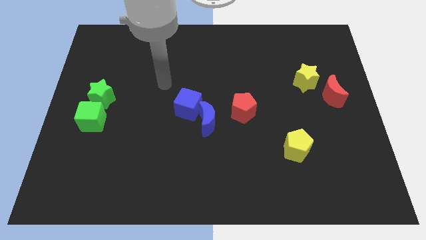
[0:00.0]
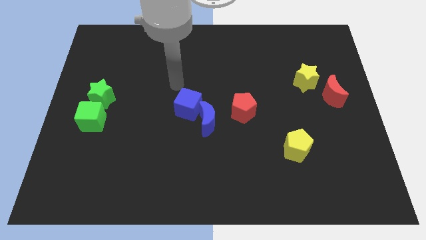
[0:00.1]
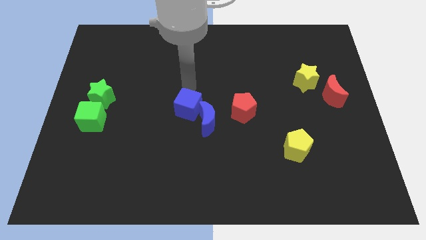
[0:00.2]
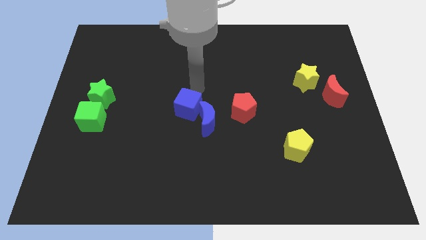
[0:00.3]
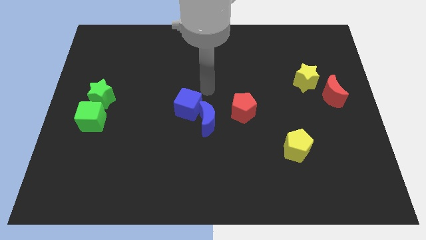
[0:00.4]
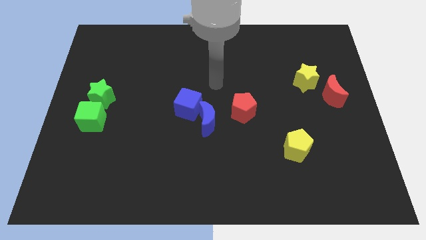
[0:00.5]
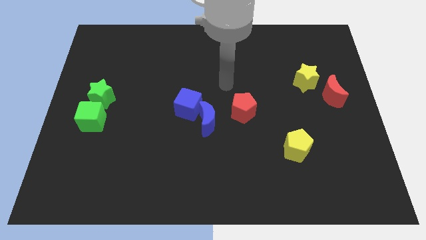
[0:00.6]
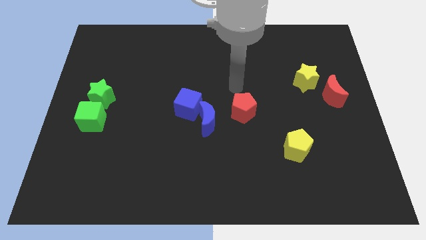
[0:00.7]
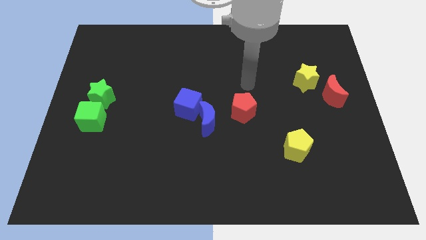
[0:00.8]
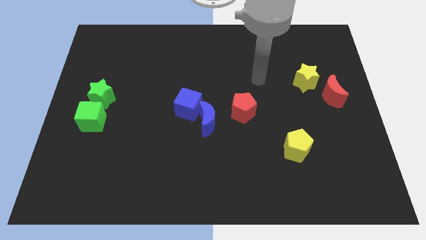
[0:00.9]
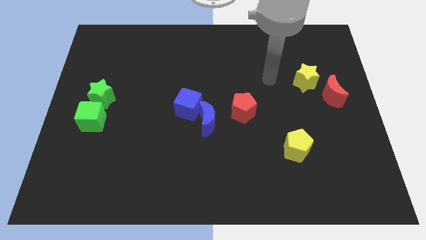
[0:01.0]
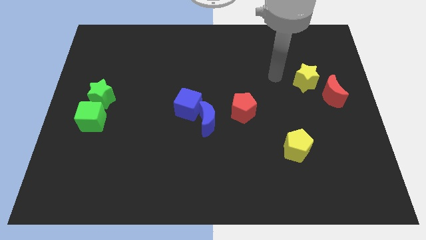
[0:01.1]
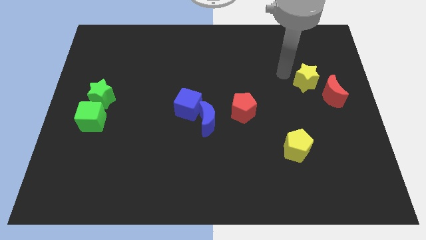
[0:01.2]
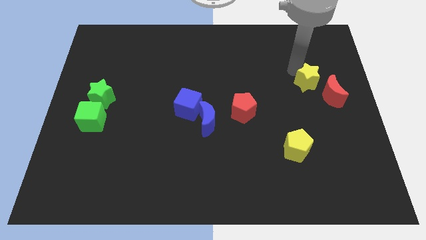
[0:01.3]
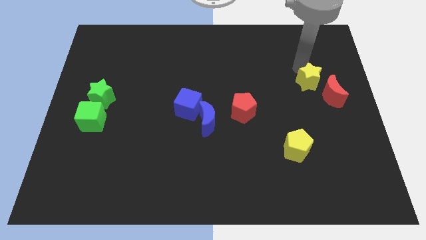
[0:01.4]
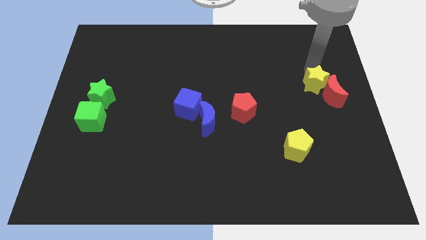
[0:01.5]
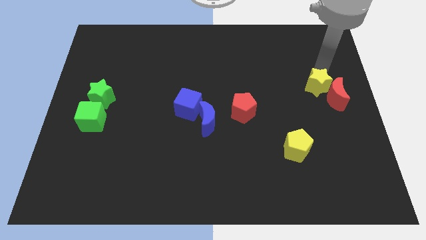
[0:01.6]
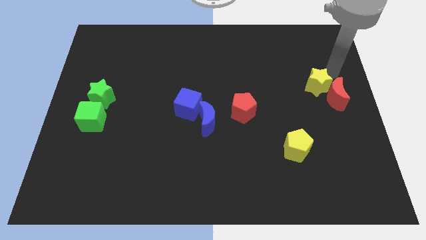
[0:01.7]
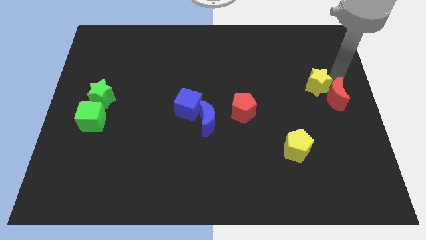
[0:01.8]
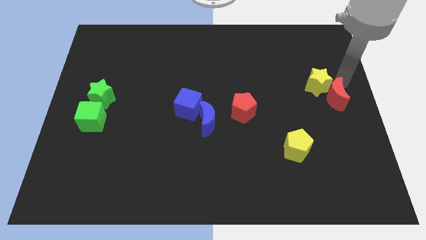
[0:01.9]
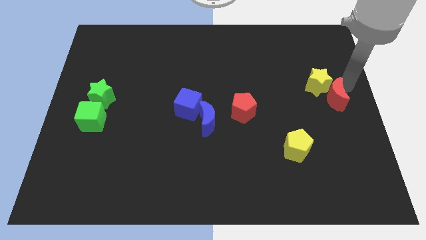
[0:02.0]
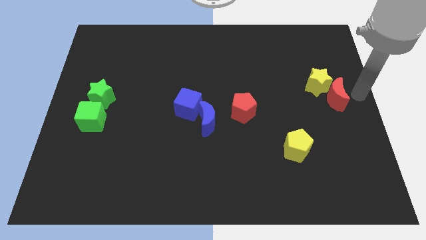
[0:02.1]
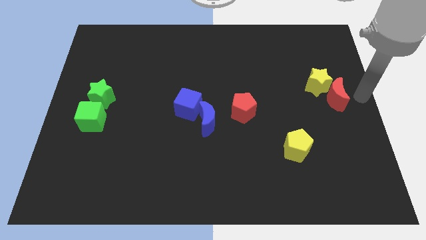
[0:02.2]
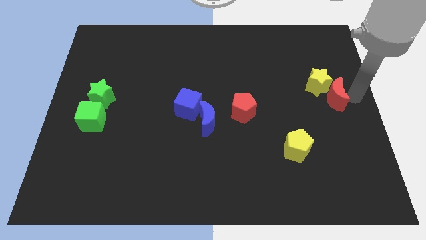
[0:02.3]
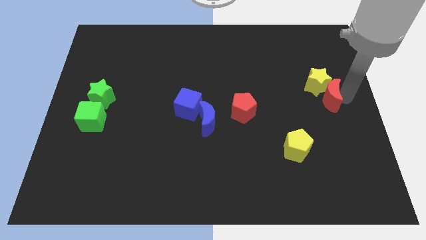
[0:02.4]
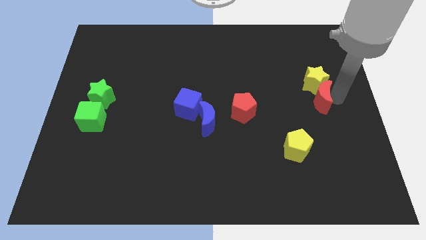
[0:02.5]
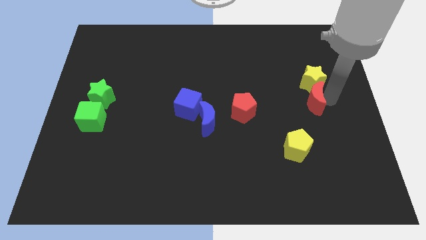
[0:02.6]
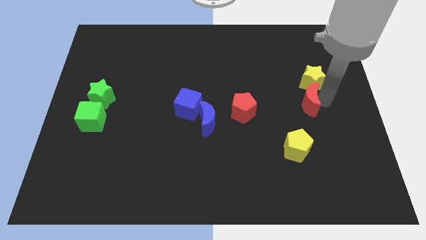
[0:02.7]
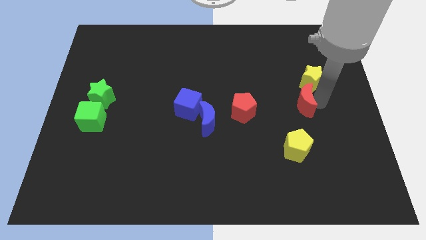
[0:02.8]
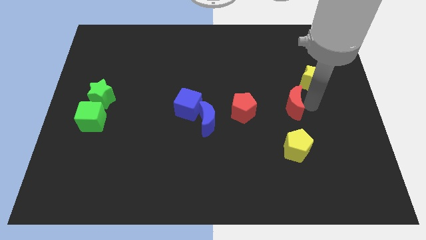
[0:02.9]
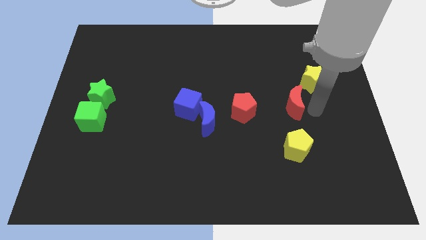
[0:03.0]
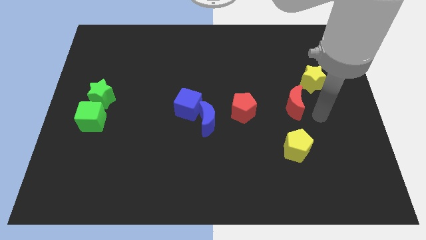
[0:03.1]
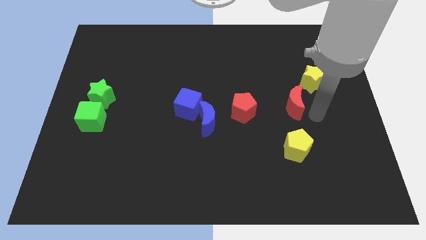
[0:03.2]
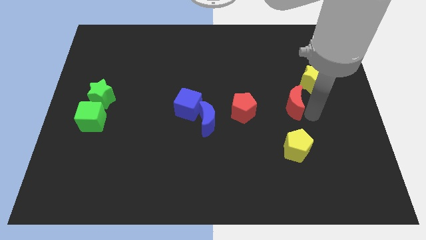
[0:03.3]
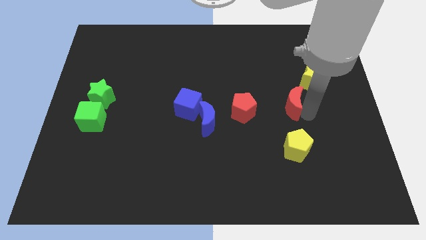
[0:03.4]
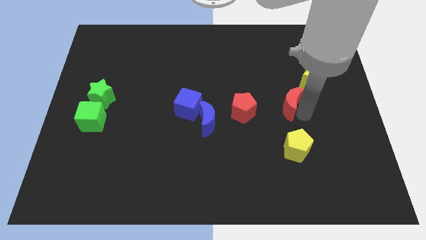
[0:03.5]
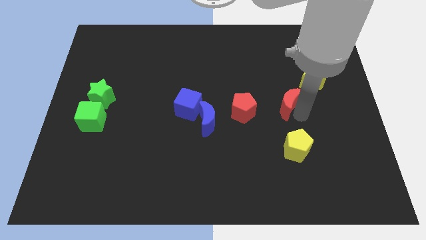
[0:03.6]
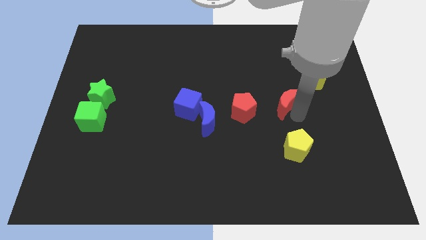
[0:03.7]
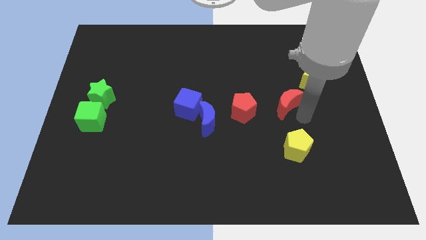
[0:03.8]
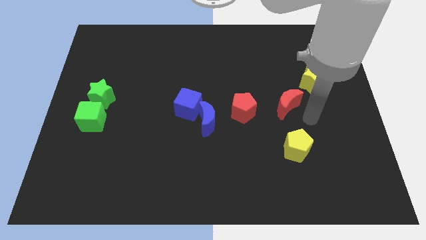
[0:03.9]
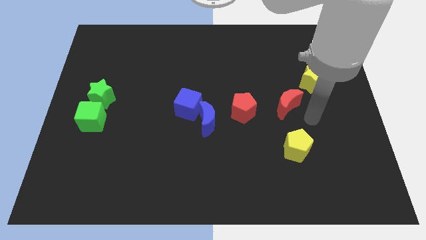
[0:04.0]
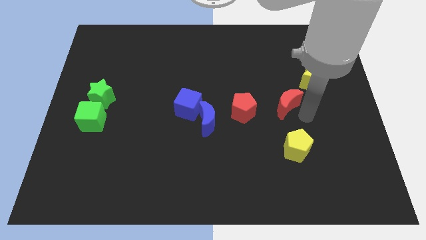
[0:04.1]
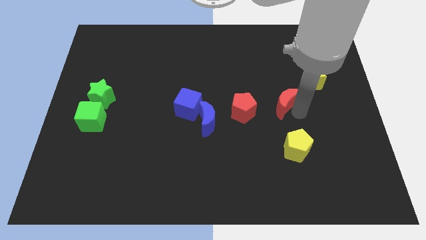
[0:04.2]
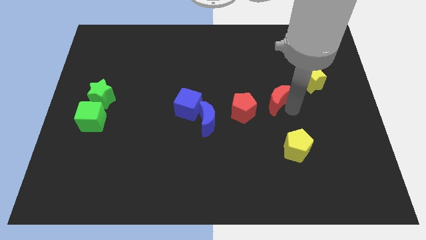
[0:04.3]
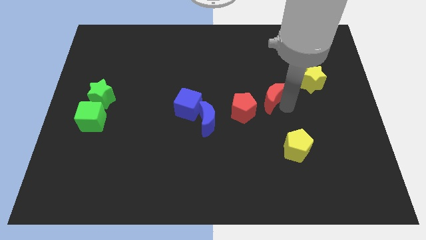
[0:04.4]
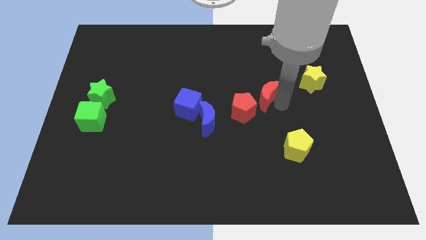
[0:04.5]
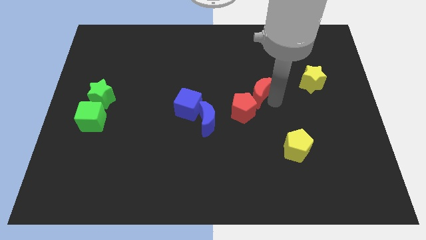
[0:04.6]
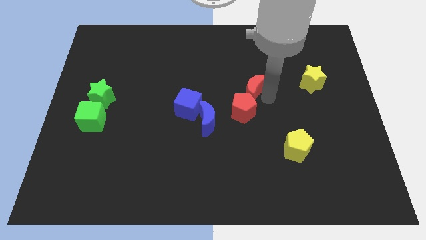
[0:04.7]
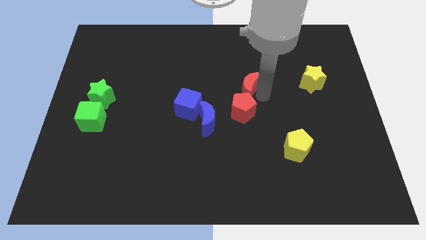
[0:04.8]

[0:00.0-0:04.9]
move the red moon to the left

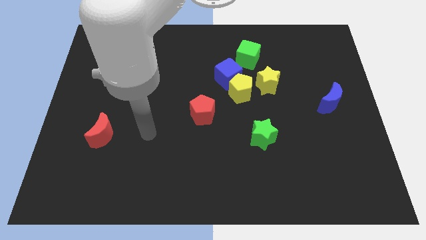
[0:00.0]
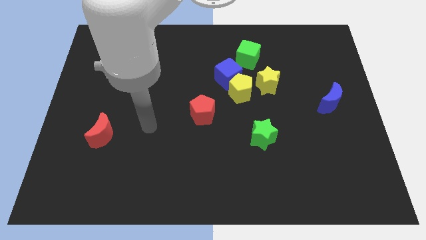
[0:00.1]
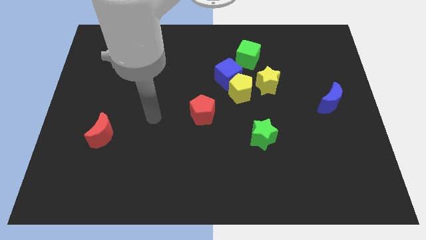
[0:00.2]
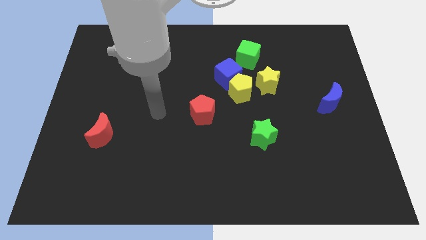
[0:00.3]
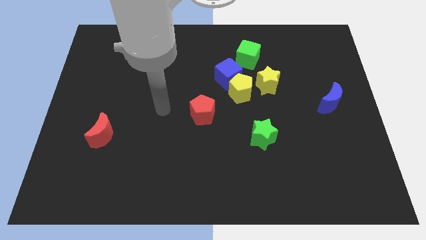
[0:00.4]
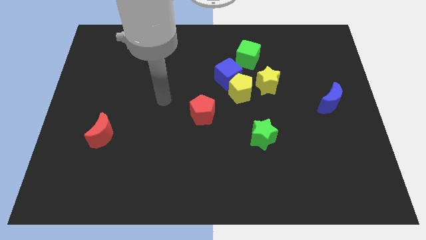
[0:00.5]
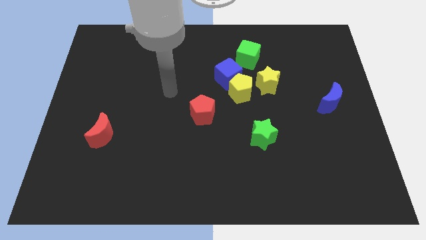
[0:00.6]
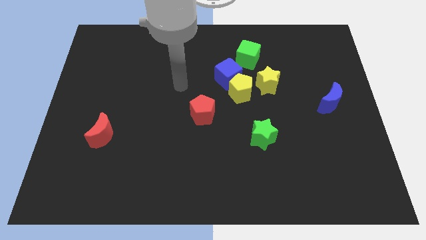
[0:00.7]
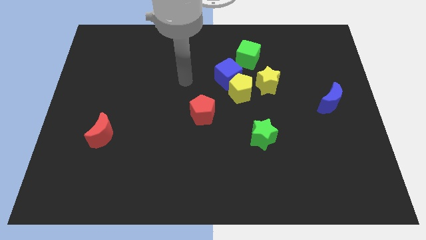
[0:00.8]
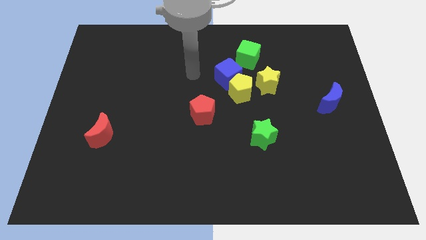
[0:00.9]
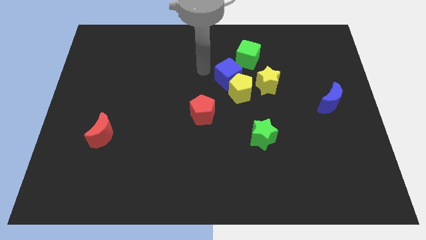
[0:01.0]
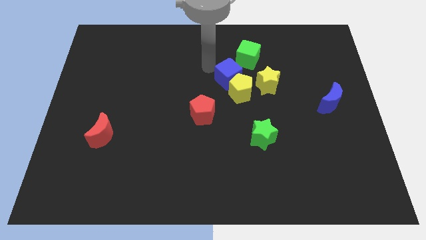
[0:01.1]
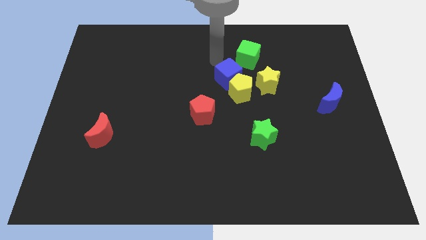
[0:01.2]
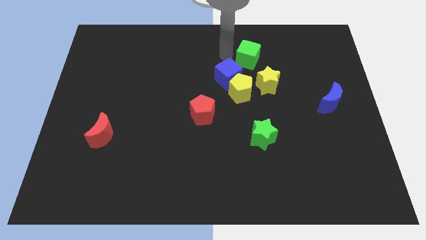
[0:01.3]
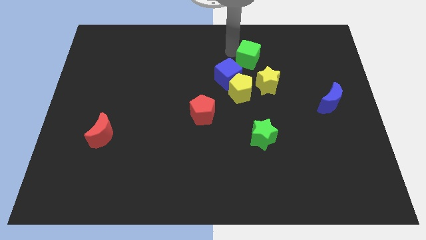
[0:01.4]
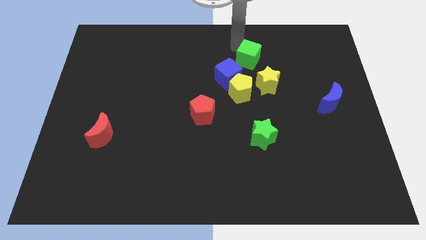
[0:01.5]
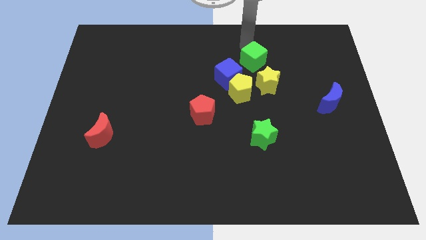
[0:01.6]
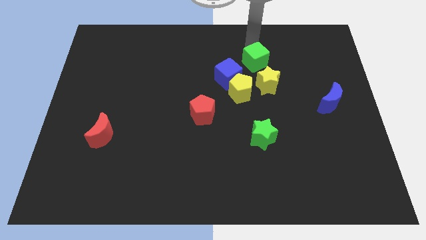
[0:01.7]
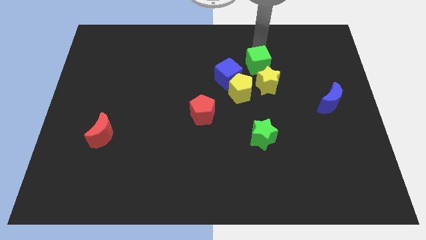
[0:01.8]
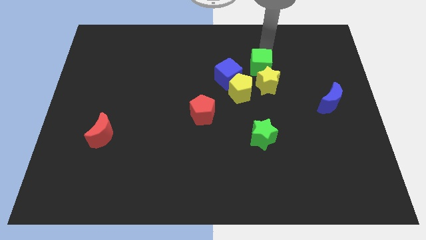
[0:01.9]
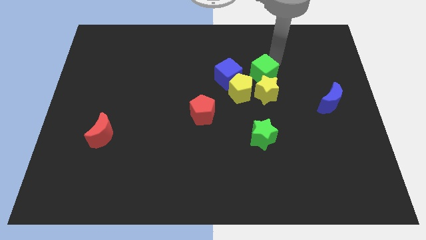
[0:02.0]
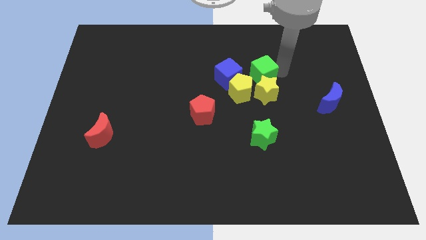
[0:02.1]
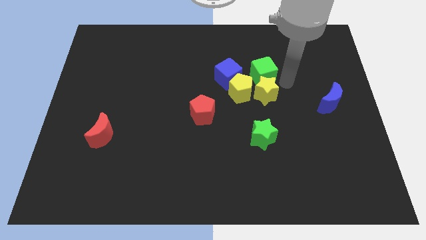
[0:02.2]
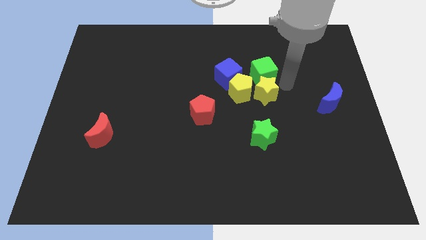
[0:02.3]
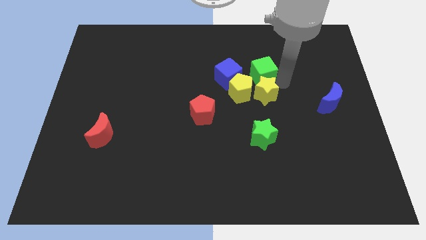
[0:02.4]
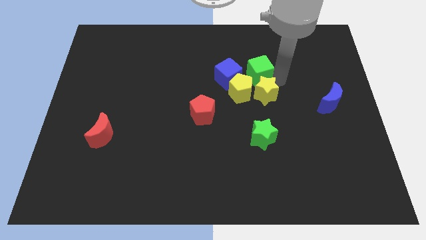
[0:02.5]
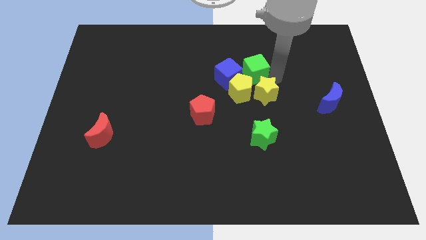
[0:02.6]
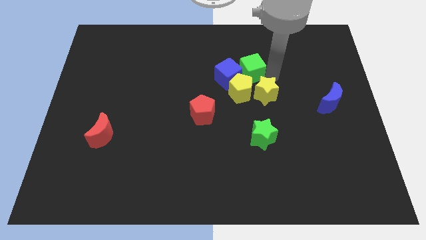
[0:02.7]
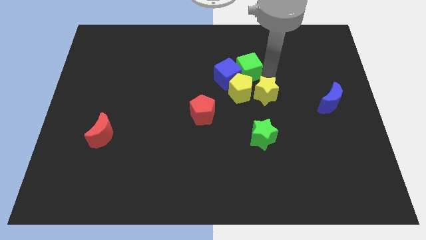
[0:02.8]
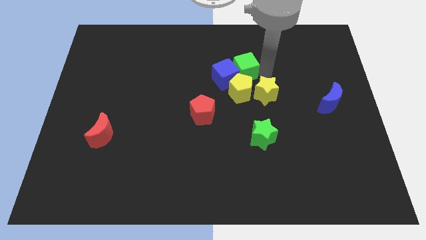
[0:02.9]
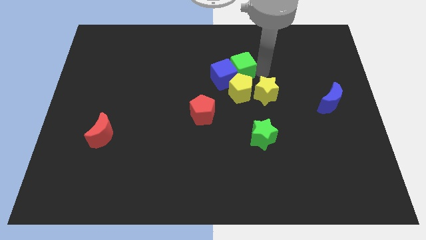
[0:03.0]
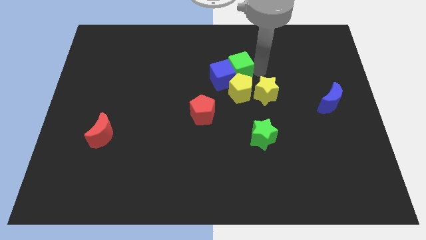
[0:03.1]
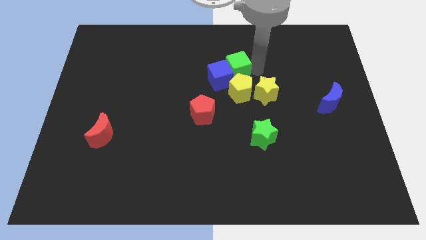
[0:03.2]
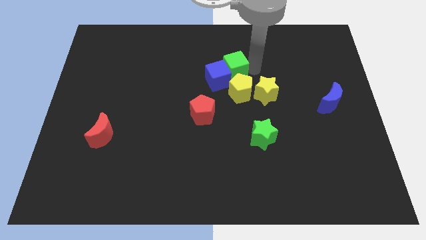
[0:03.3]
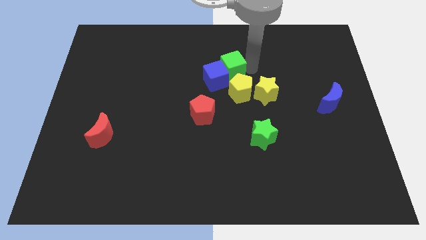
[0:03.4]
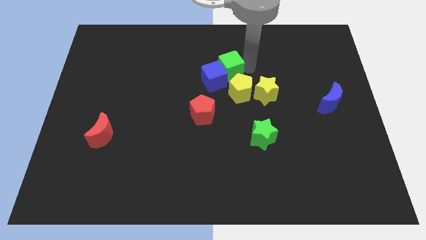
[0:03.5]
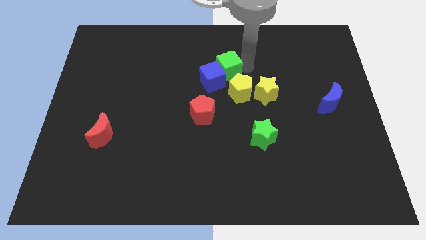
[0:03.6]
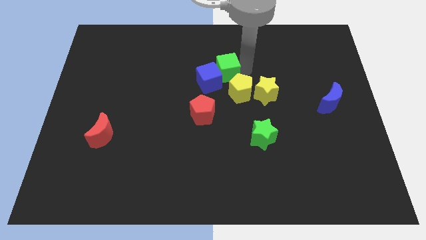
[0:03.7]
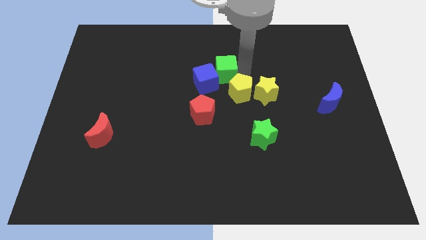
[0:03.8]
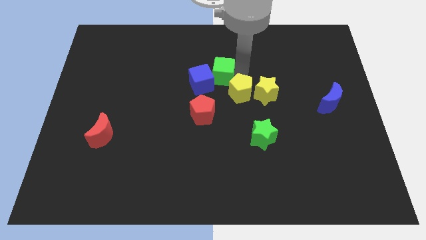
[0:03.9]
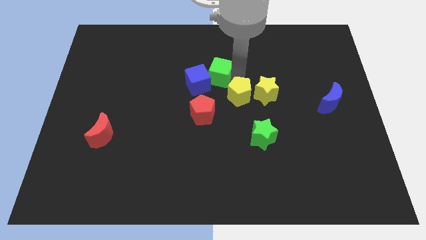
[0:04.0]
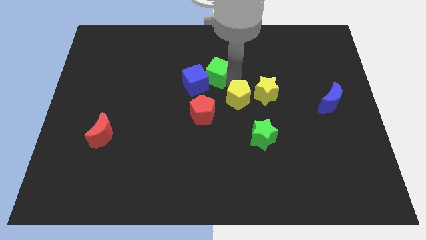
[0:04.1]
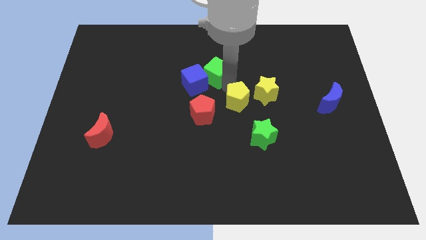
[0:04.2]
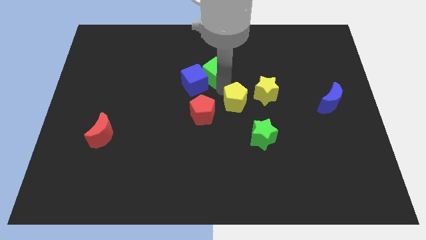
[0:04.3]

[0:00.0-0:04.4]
slightly push the green cube left
